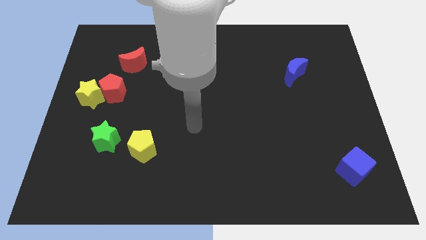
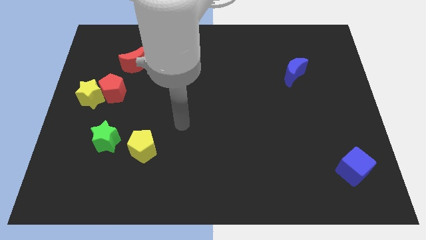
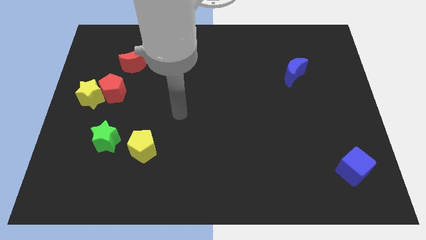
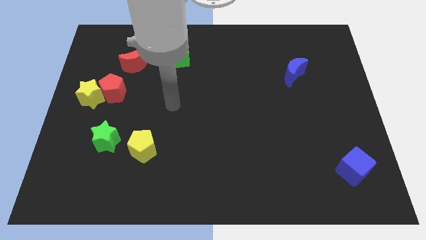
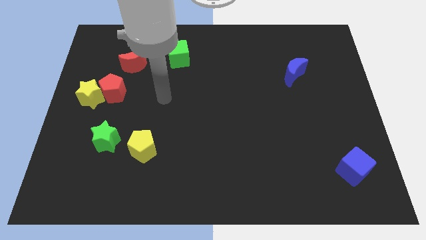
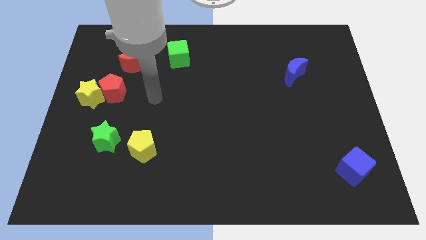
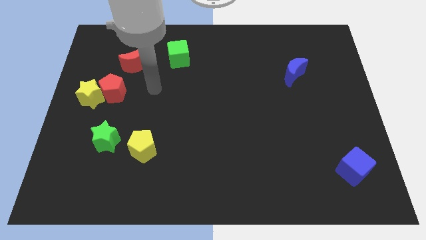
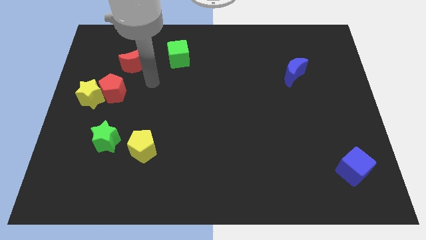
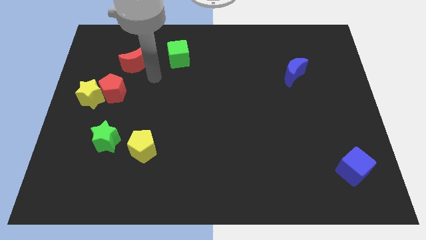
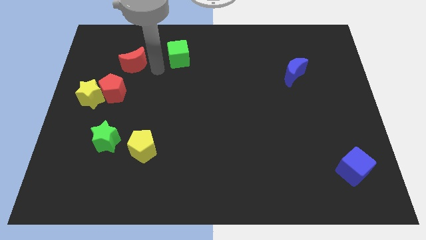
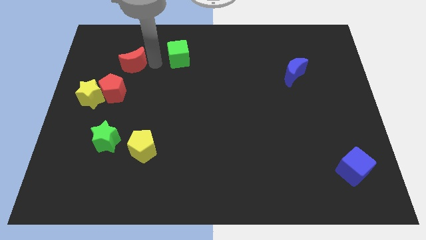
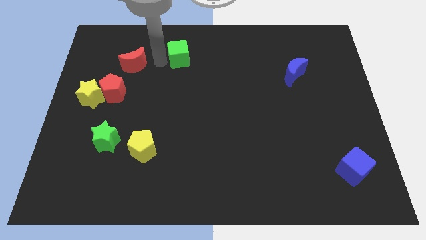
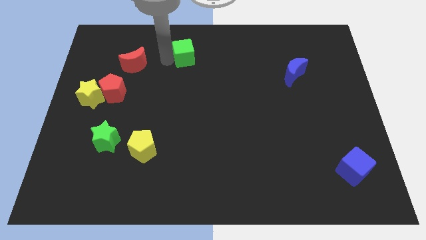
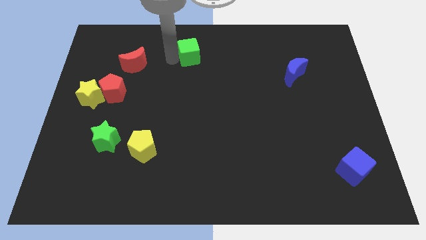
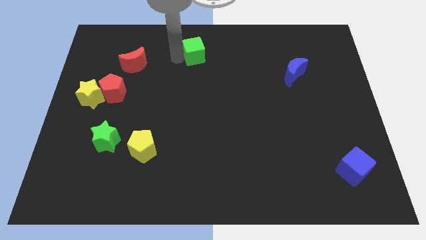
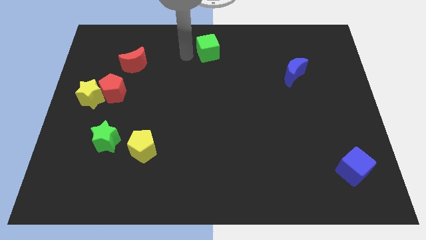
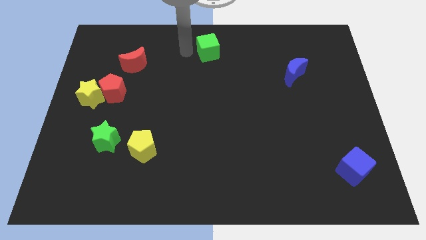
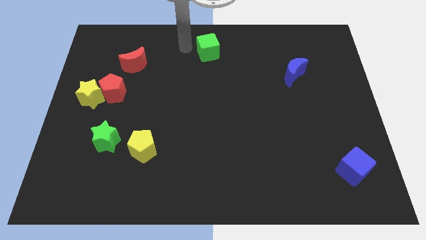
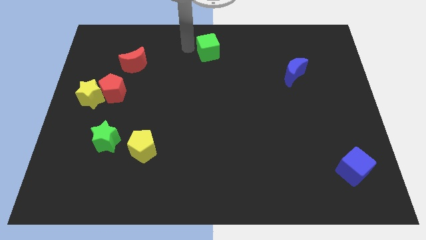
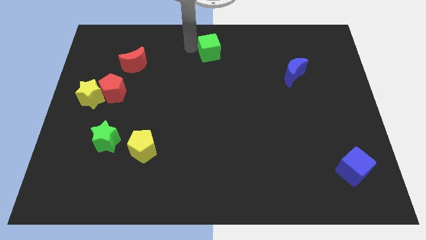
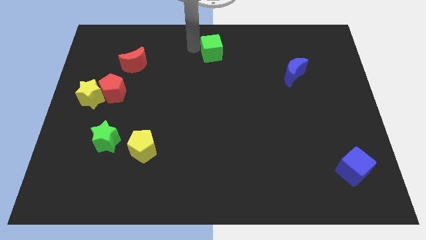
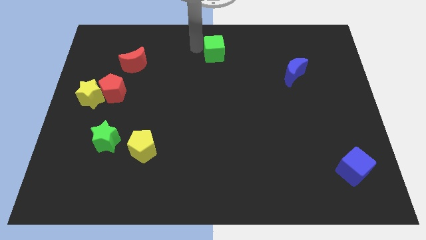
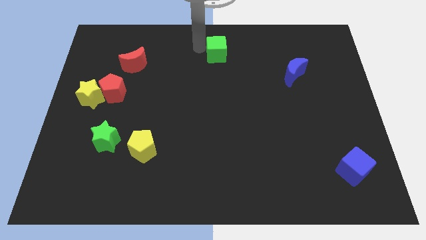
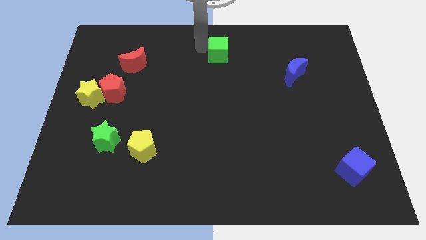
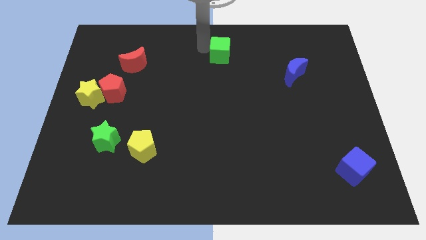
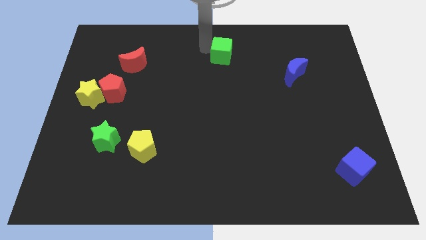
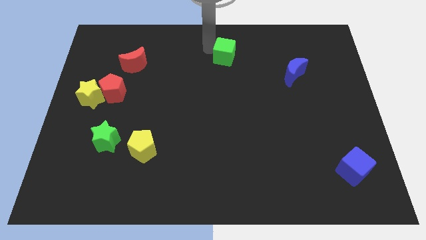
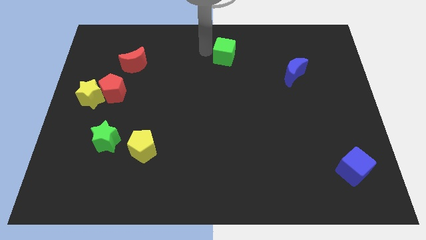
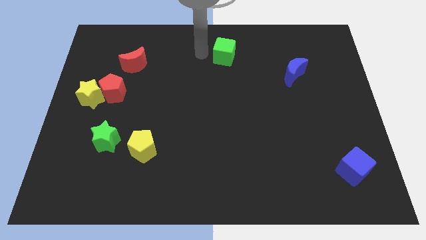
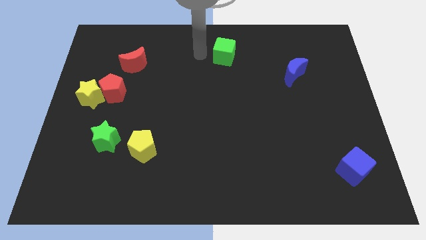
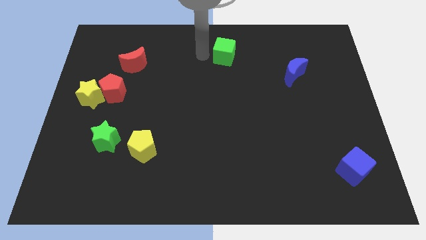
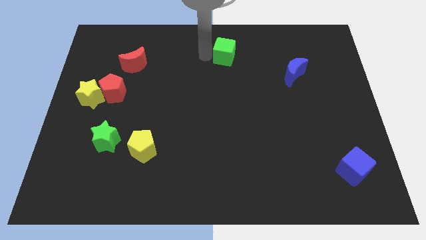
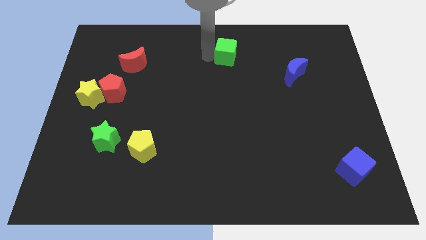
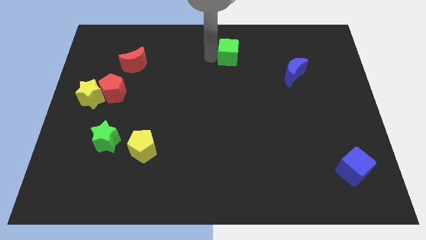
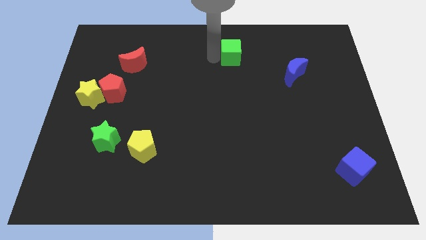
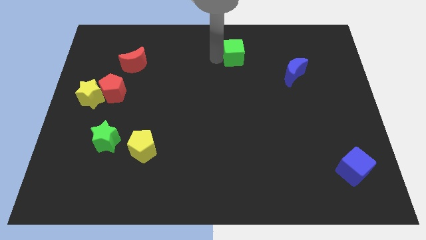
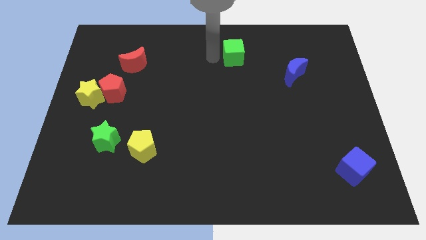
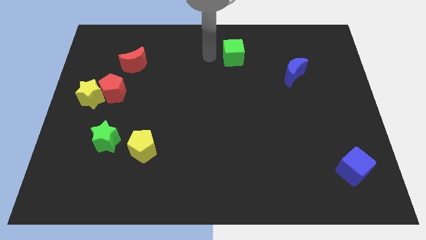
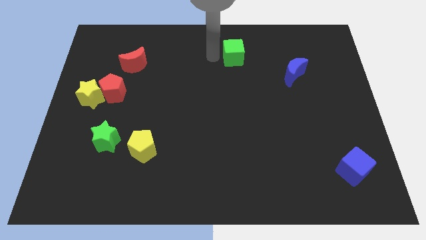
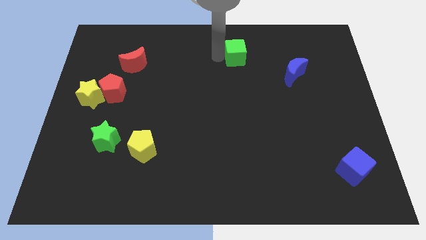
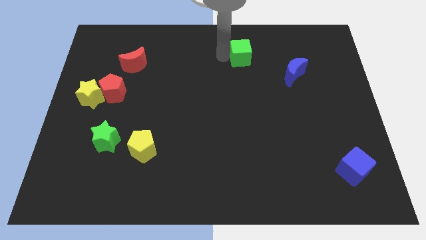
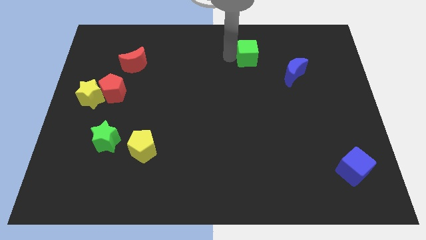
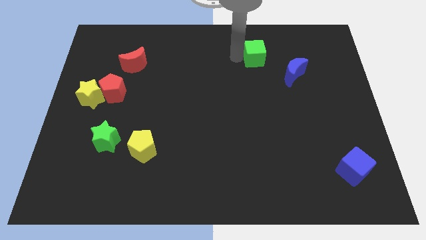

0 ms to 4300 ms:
move the green cube right

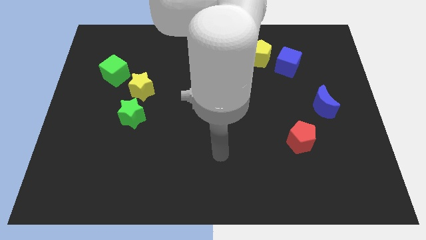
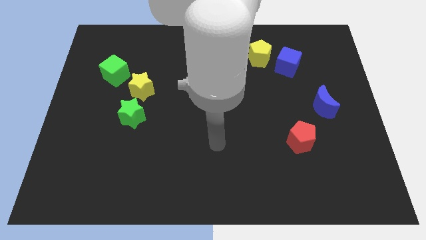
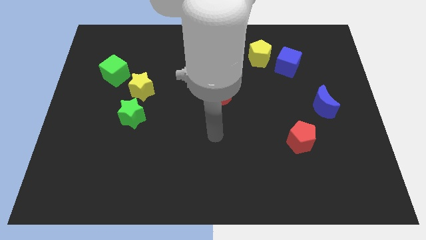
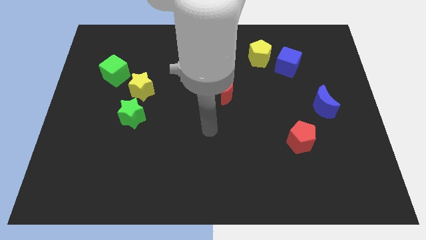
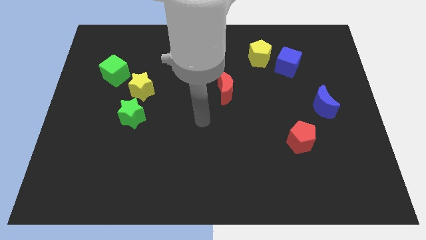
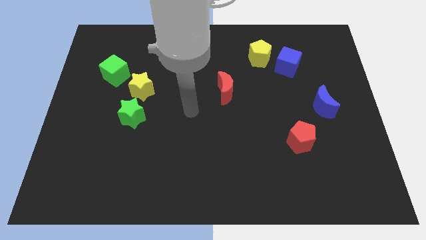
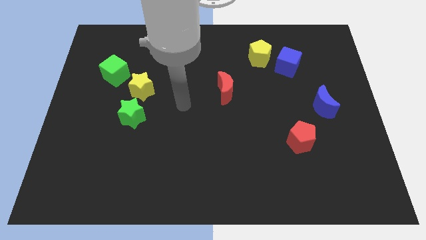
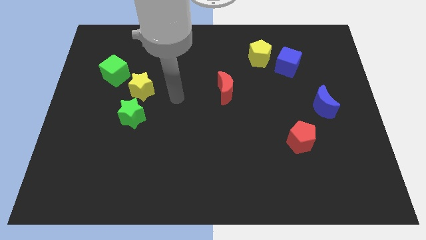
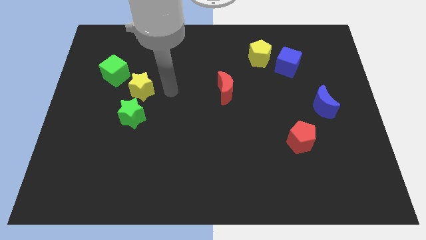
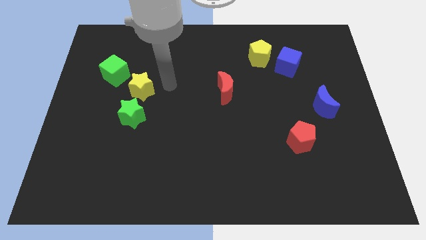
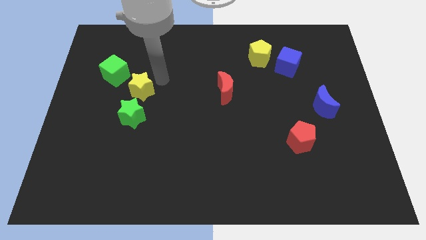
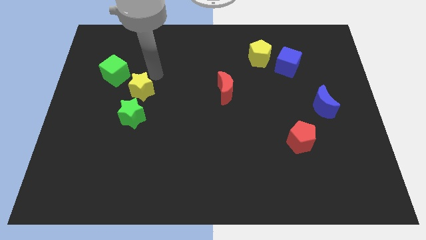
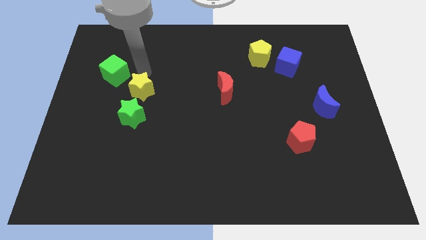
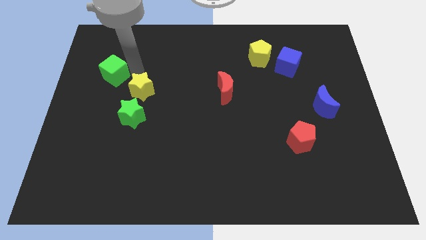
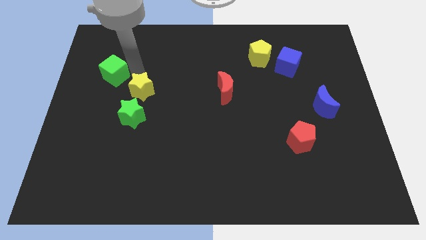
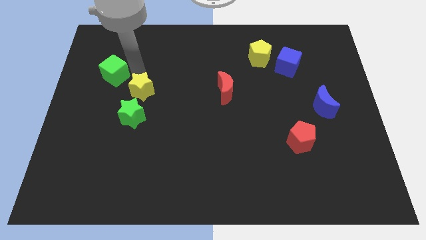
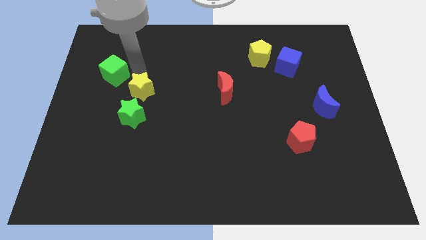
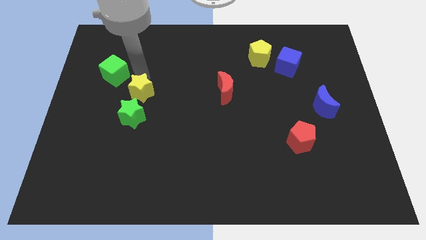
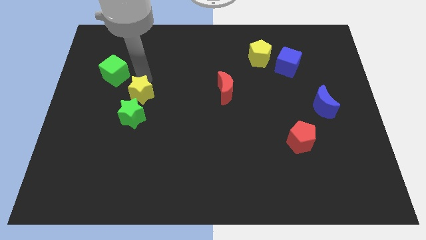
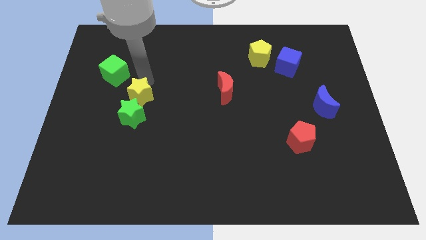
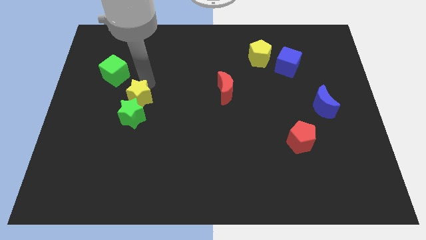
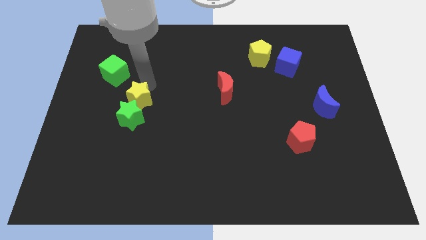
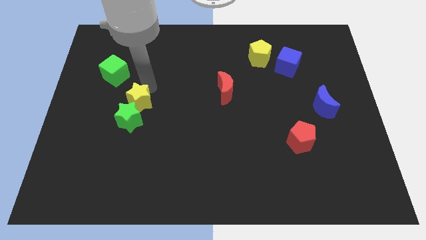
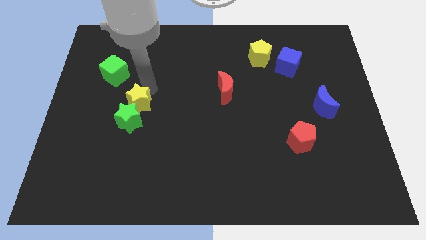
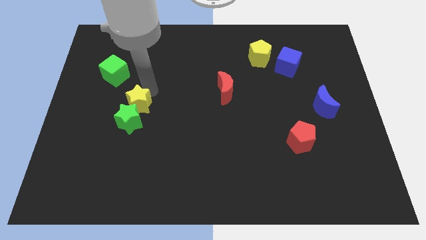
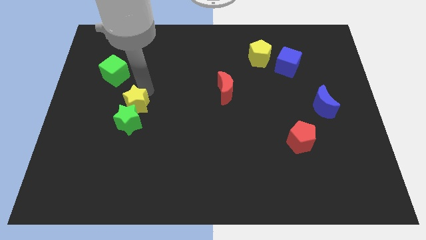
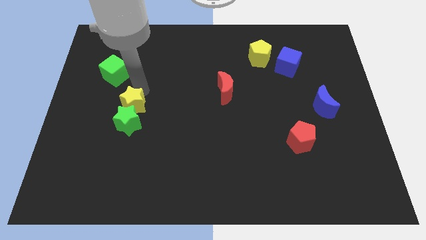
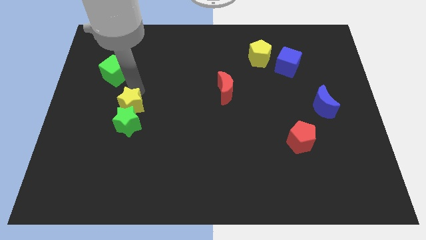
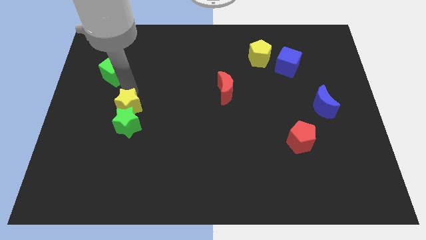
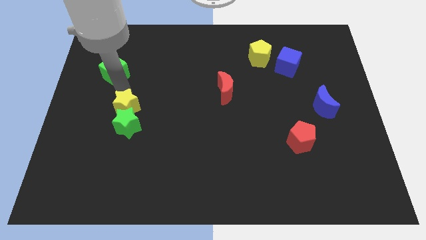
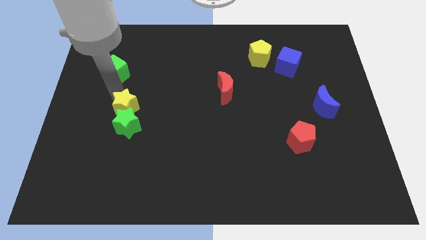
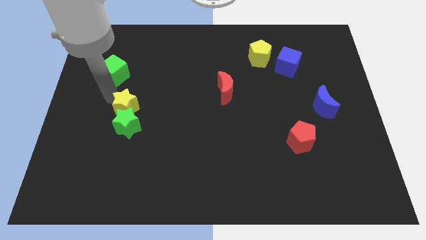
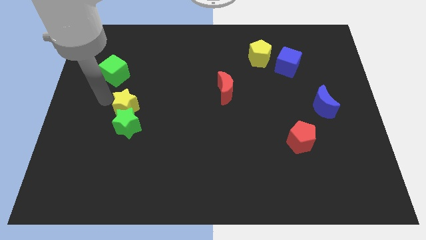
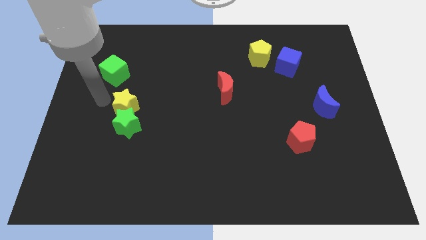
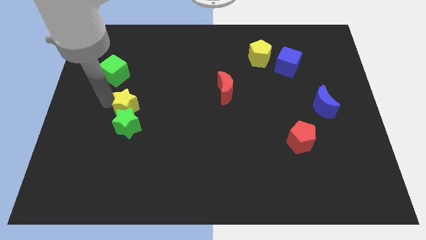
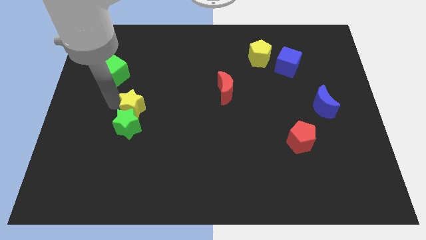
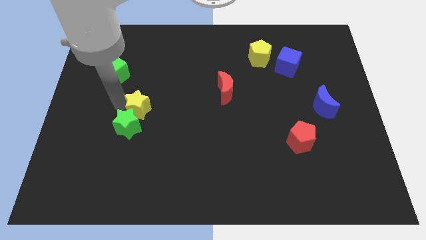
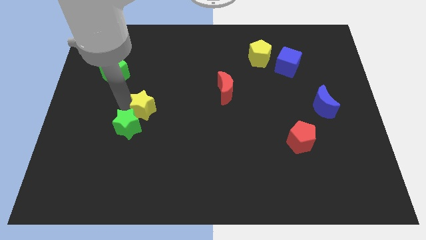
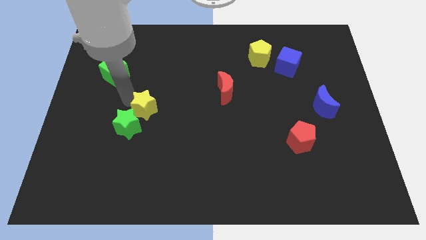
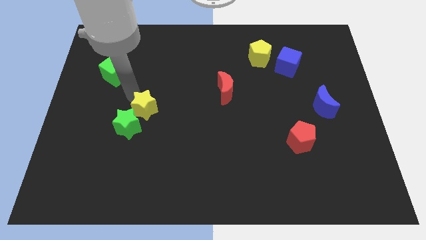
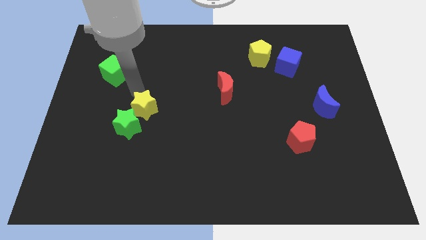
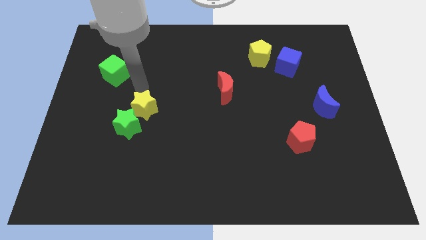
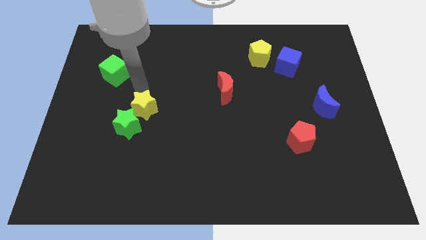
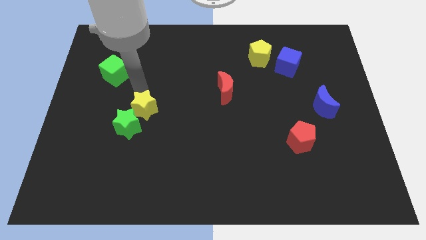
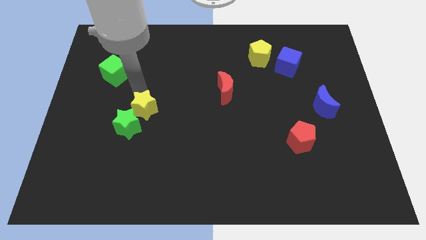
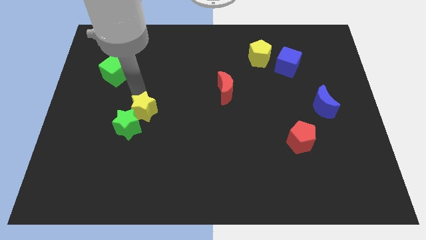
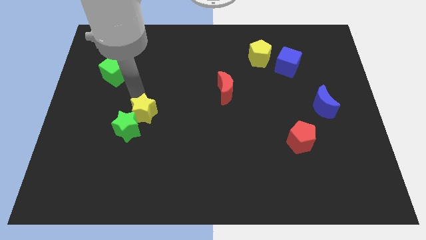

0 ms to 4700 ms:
slide the yellow star down slightly
